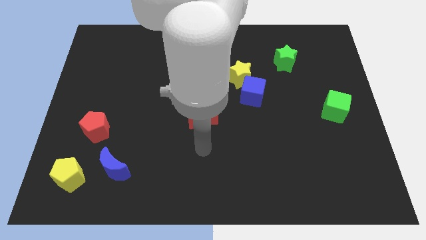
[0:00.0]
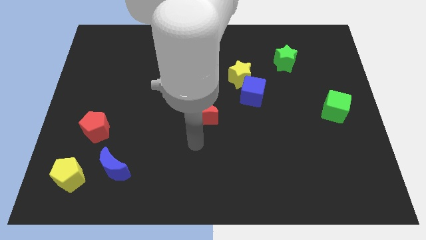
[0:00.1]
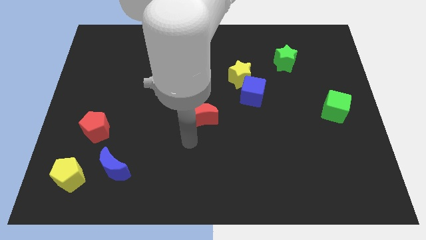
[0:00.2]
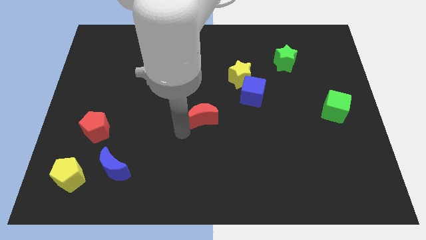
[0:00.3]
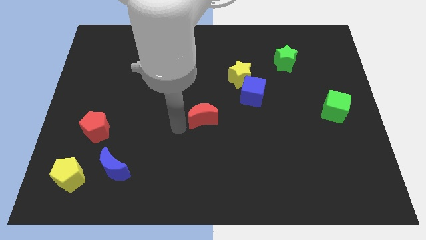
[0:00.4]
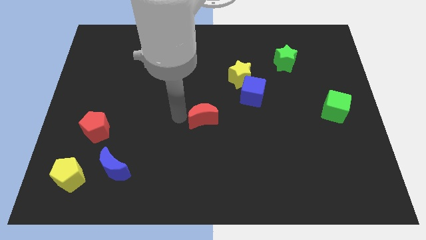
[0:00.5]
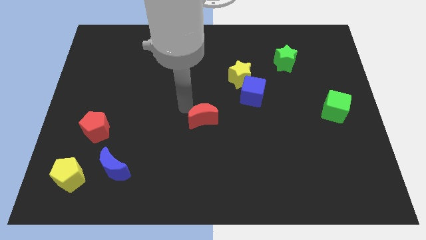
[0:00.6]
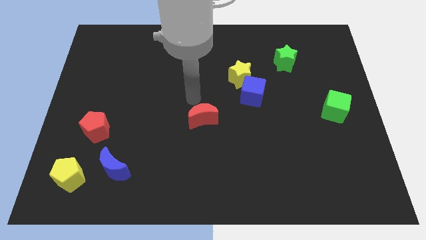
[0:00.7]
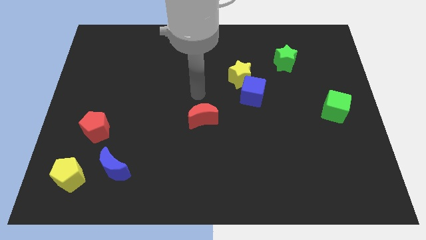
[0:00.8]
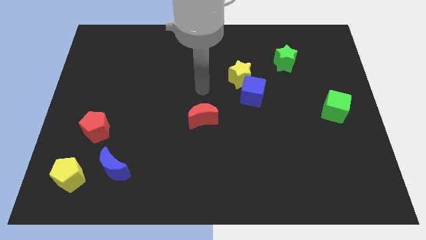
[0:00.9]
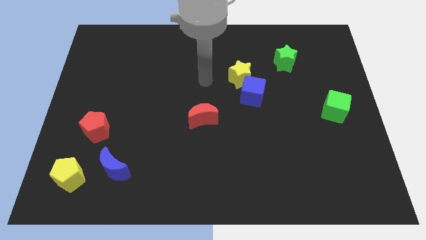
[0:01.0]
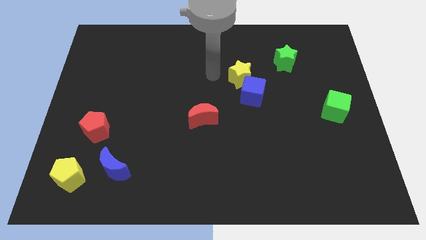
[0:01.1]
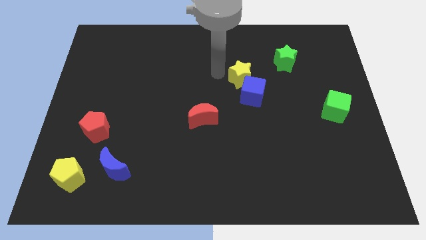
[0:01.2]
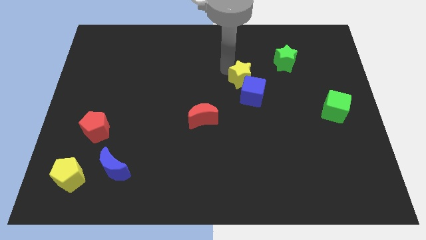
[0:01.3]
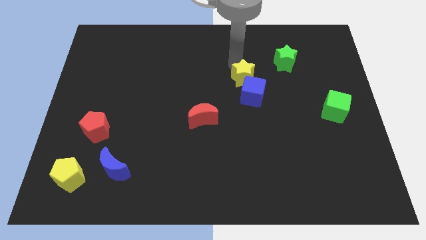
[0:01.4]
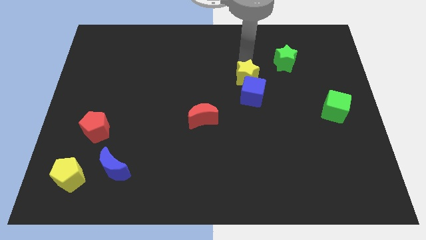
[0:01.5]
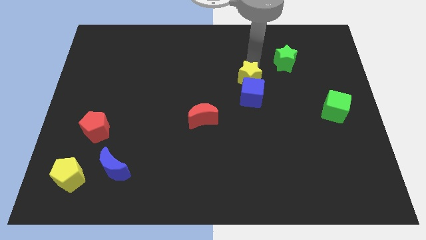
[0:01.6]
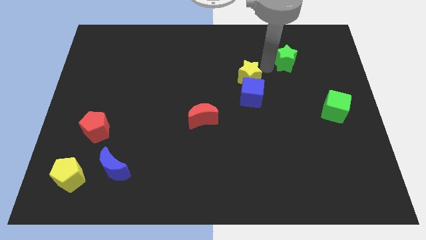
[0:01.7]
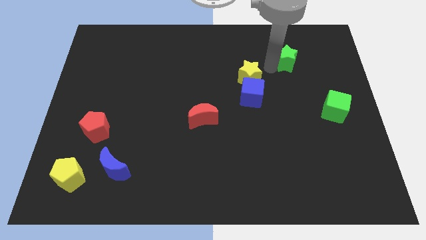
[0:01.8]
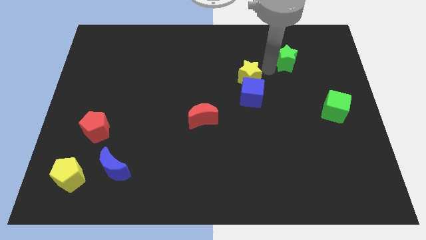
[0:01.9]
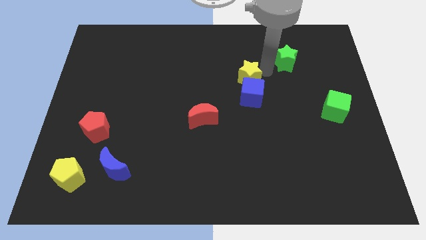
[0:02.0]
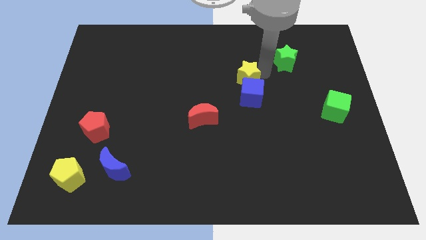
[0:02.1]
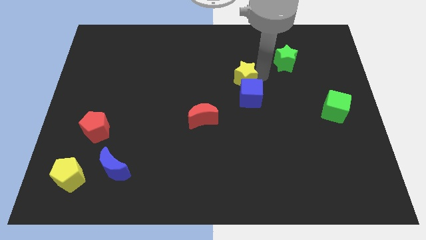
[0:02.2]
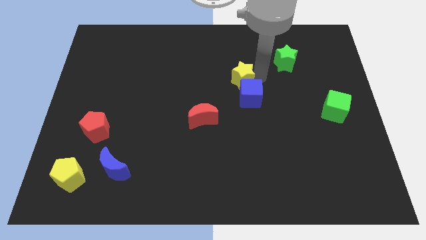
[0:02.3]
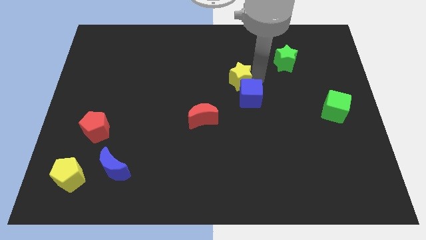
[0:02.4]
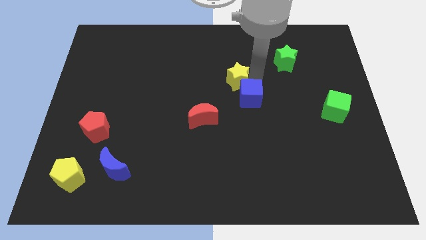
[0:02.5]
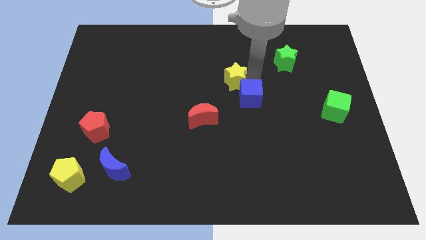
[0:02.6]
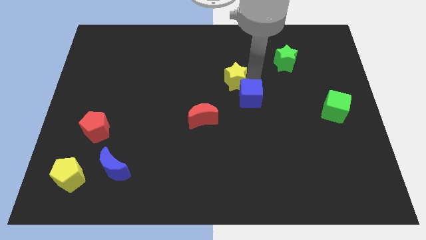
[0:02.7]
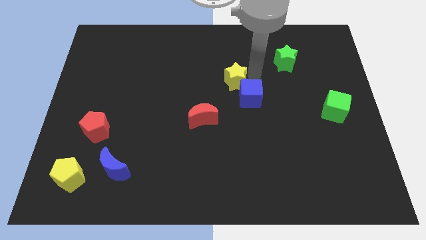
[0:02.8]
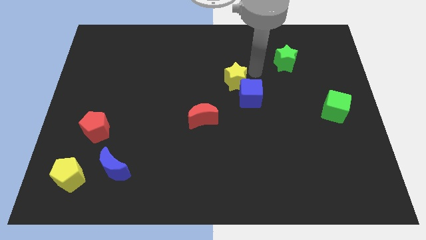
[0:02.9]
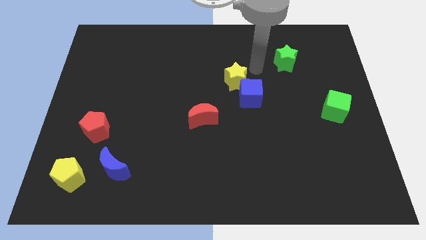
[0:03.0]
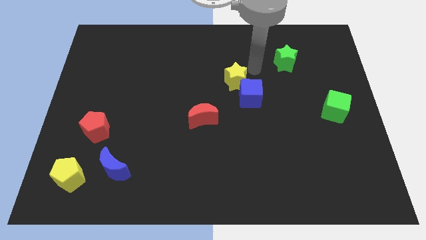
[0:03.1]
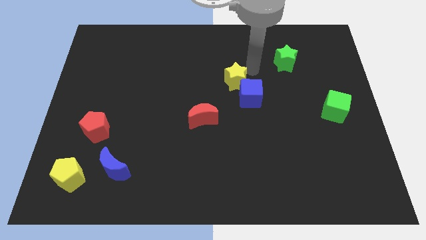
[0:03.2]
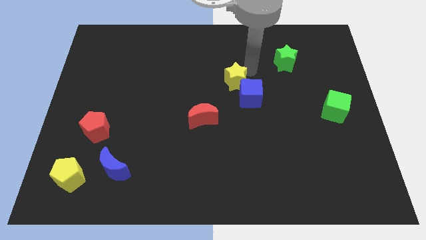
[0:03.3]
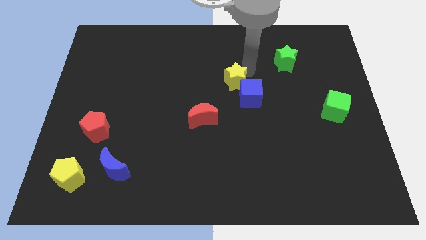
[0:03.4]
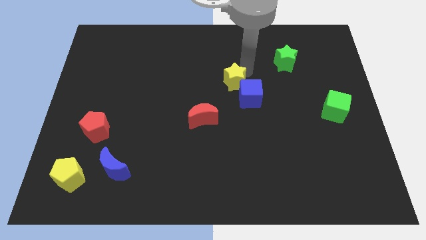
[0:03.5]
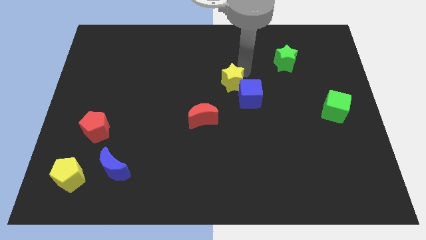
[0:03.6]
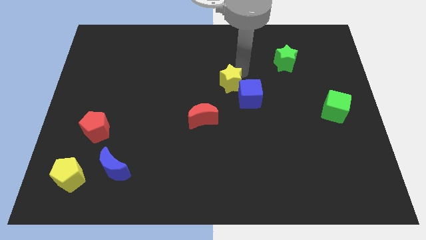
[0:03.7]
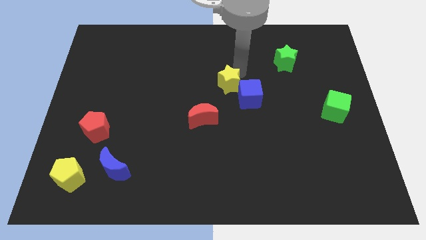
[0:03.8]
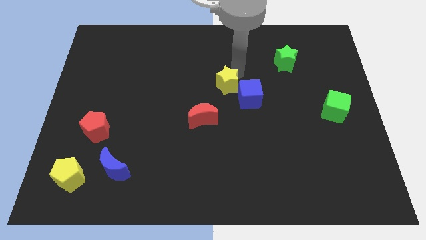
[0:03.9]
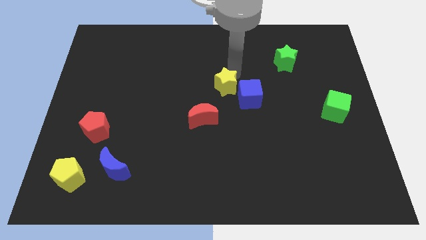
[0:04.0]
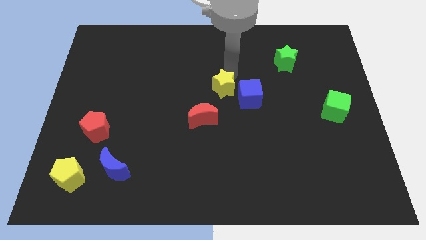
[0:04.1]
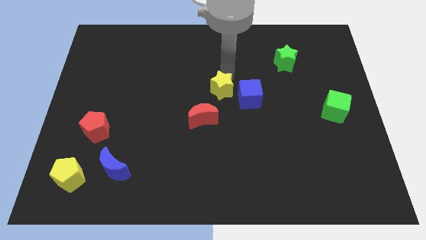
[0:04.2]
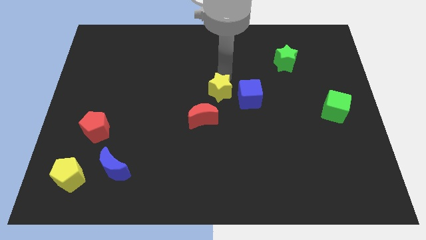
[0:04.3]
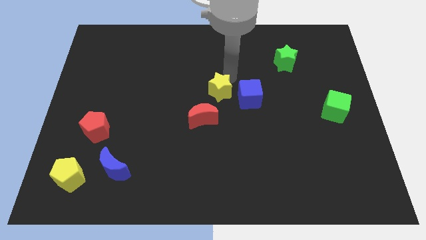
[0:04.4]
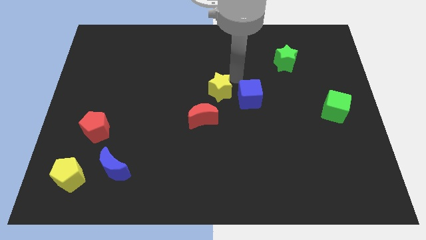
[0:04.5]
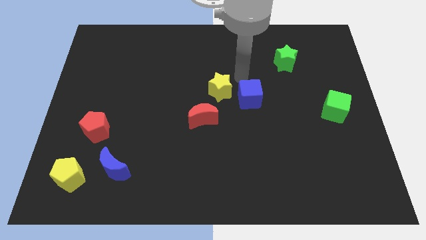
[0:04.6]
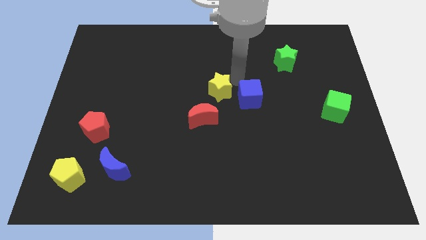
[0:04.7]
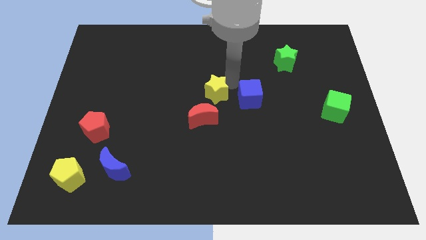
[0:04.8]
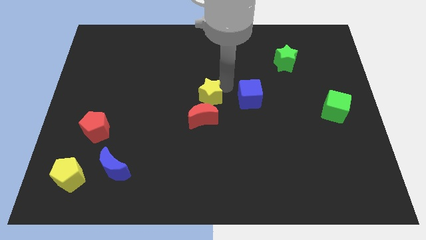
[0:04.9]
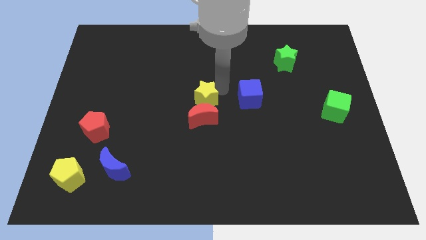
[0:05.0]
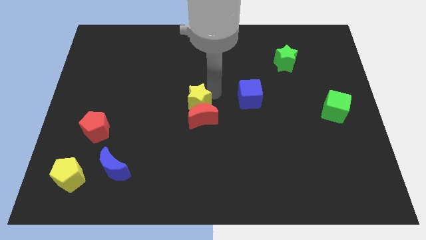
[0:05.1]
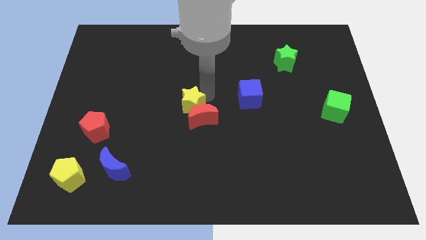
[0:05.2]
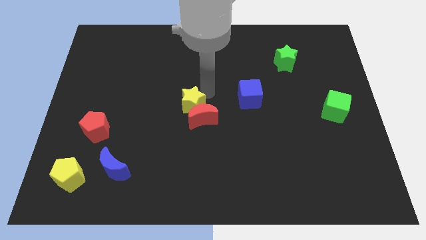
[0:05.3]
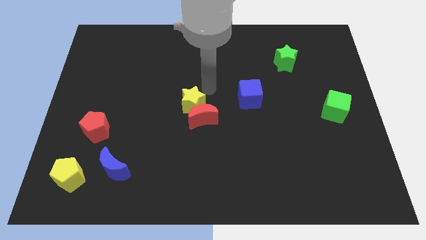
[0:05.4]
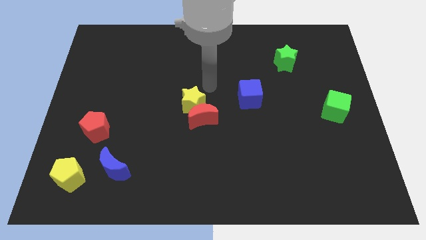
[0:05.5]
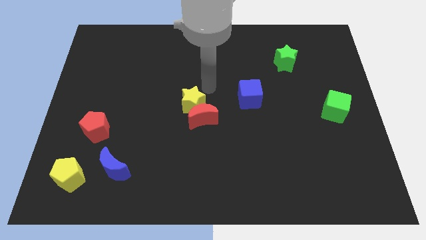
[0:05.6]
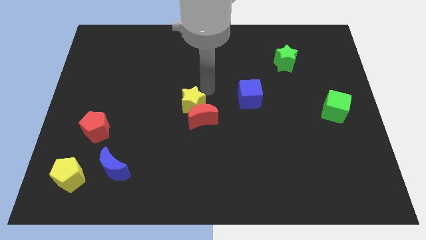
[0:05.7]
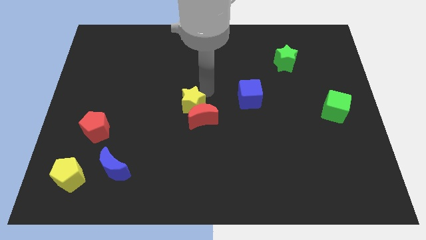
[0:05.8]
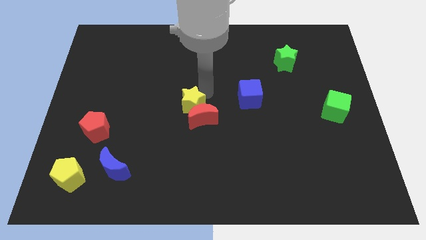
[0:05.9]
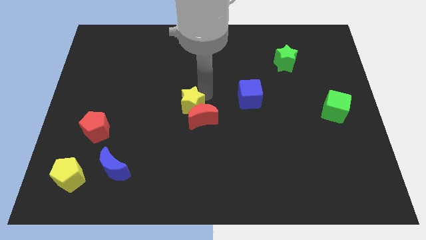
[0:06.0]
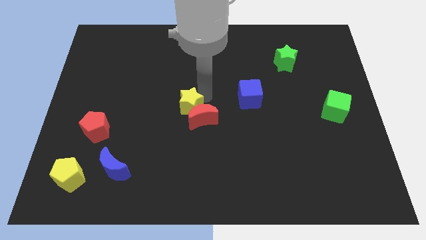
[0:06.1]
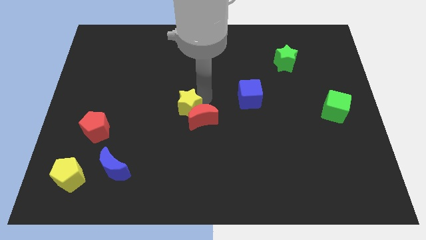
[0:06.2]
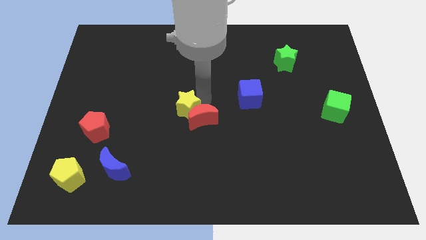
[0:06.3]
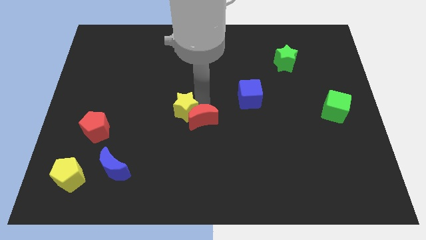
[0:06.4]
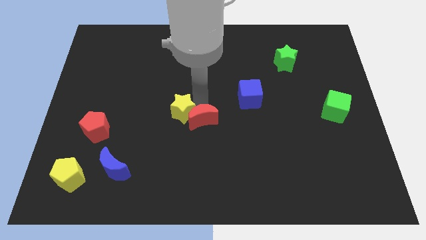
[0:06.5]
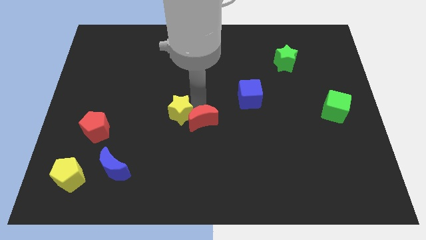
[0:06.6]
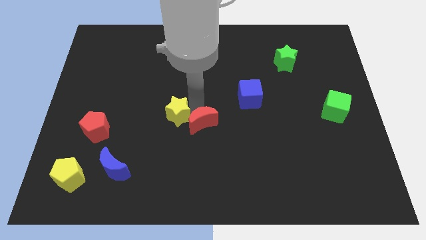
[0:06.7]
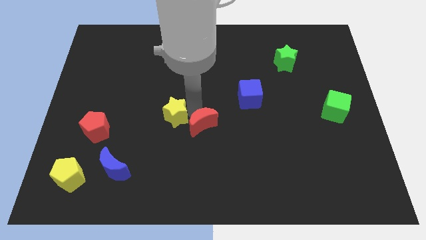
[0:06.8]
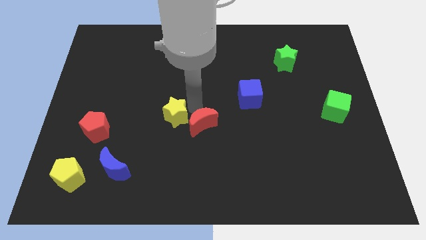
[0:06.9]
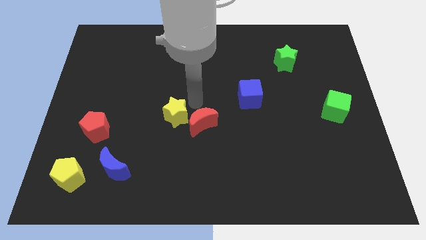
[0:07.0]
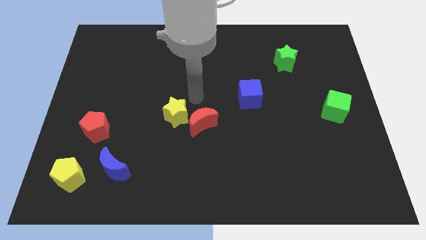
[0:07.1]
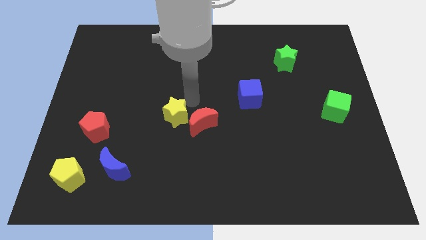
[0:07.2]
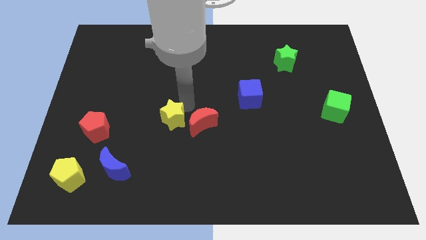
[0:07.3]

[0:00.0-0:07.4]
push the yellow star downwards and left

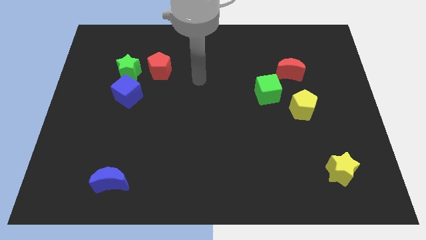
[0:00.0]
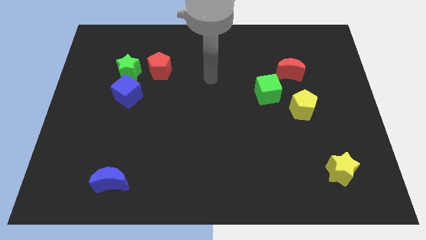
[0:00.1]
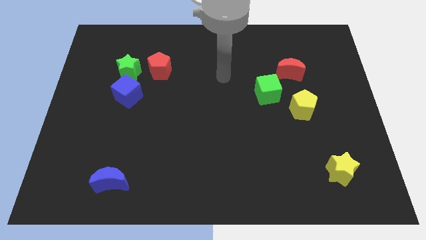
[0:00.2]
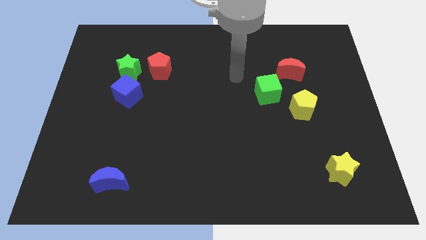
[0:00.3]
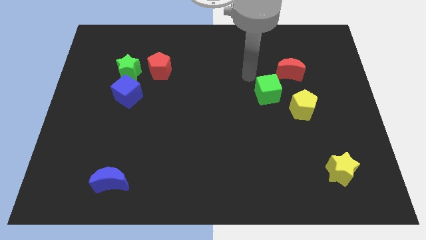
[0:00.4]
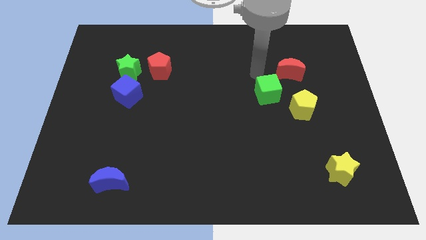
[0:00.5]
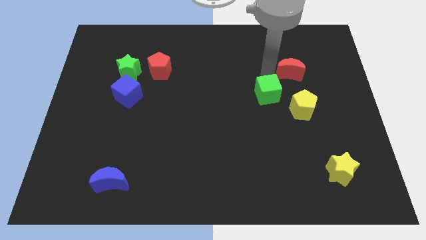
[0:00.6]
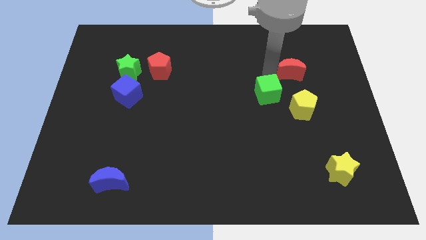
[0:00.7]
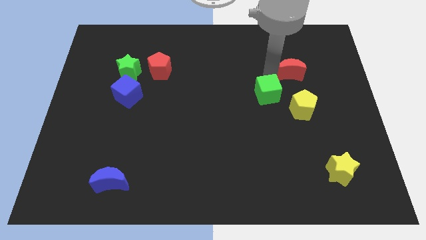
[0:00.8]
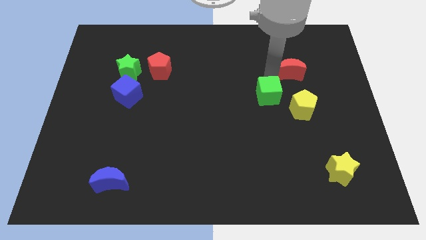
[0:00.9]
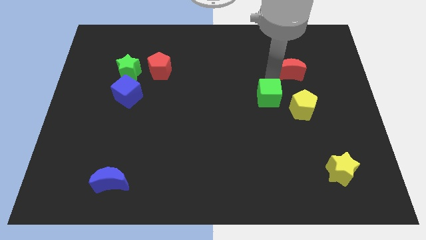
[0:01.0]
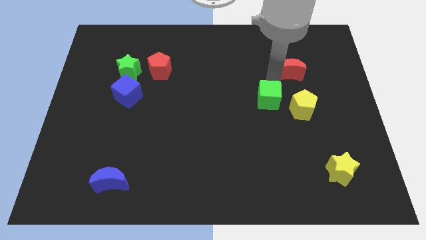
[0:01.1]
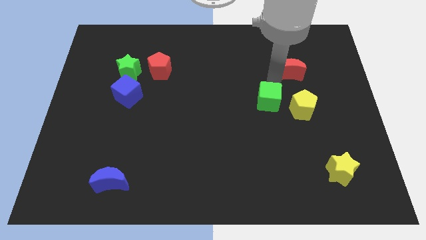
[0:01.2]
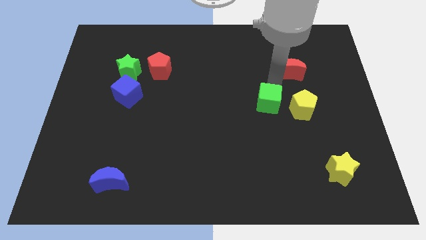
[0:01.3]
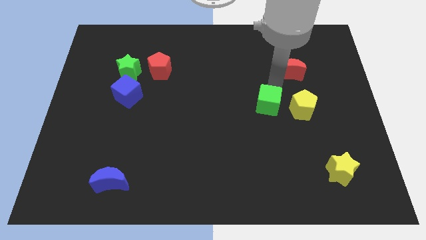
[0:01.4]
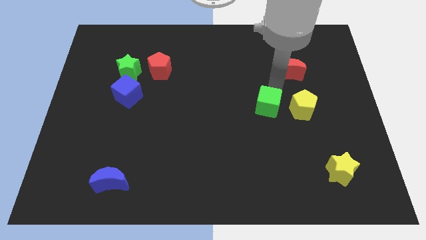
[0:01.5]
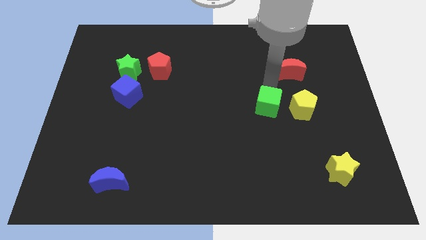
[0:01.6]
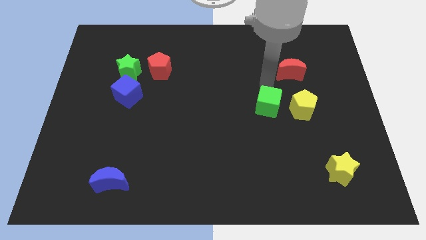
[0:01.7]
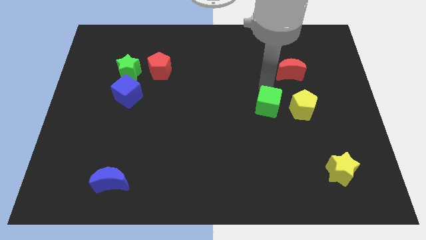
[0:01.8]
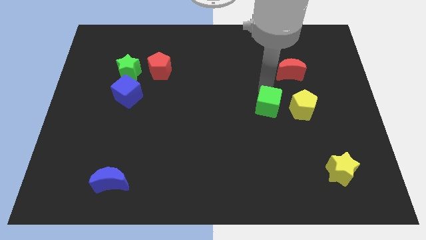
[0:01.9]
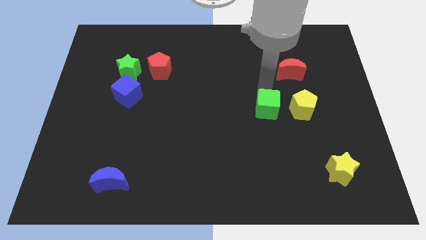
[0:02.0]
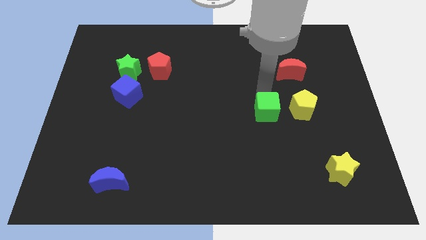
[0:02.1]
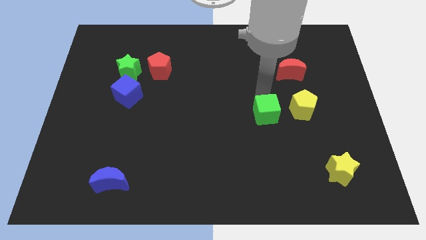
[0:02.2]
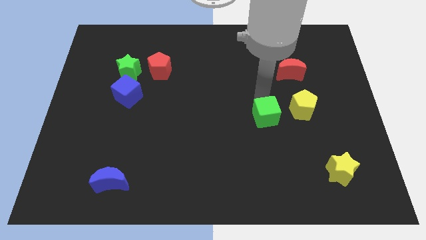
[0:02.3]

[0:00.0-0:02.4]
move the green cube down somewhat
